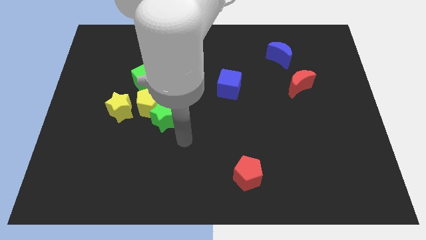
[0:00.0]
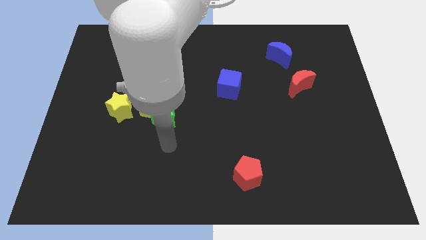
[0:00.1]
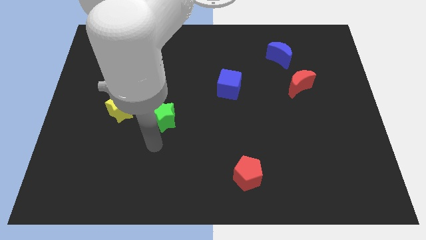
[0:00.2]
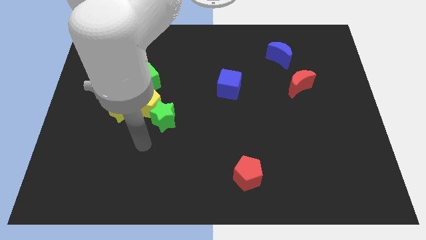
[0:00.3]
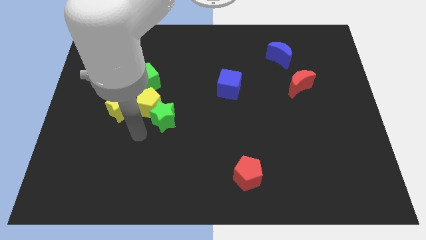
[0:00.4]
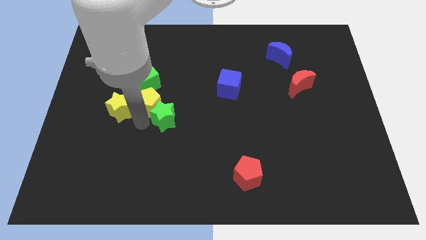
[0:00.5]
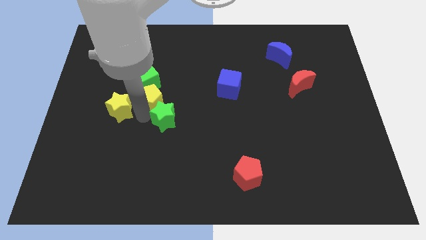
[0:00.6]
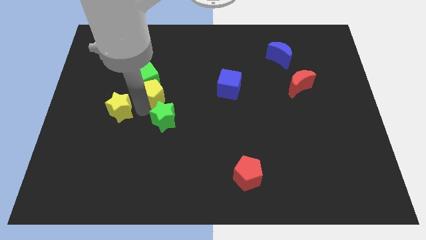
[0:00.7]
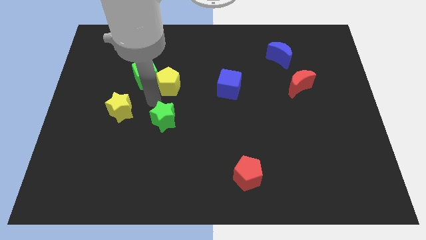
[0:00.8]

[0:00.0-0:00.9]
move the green star away from the yellow pentagon

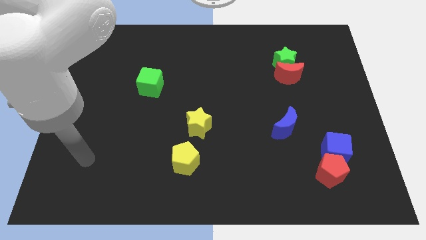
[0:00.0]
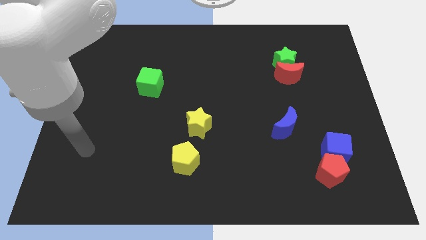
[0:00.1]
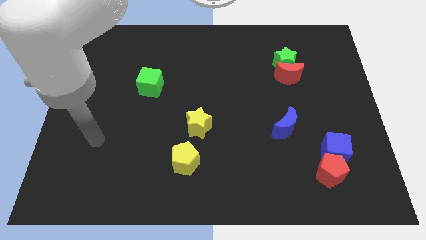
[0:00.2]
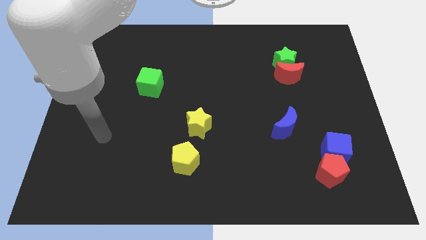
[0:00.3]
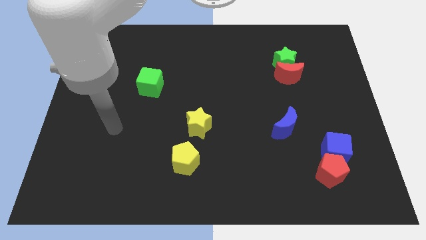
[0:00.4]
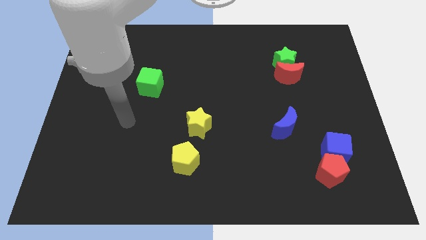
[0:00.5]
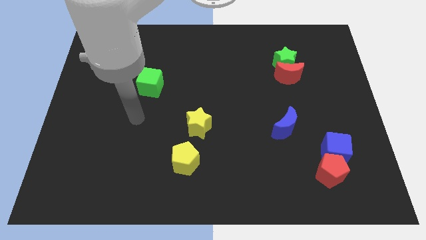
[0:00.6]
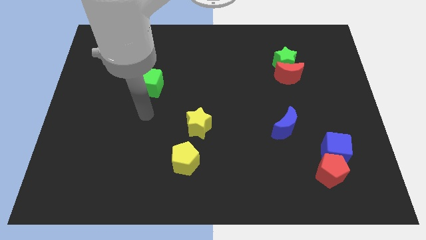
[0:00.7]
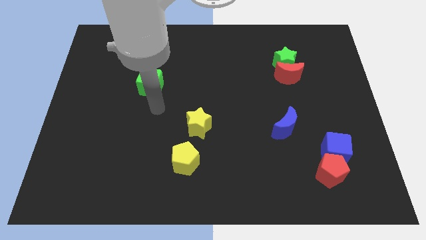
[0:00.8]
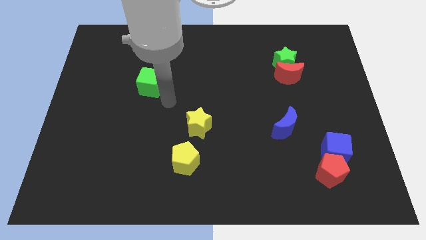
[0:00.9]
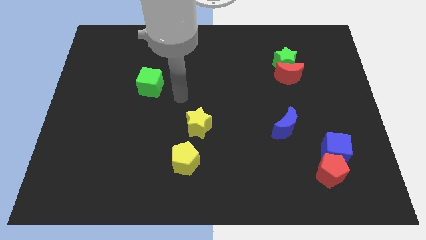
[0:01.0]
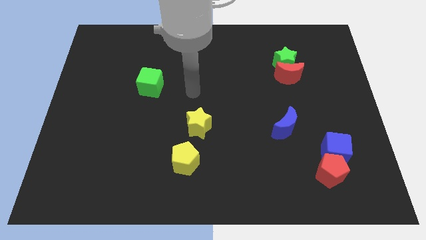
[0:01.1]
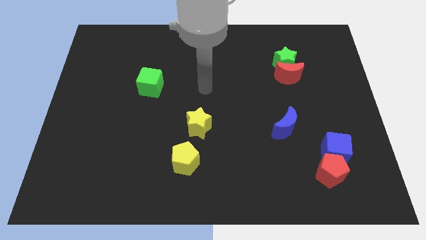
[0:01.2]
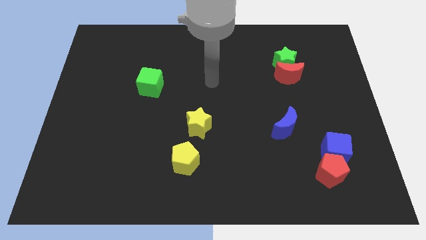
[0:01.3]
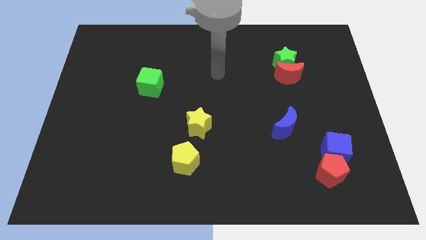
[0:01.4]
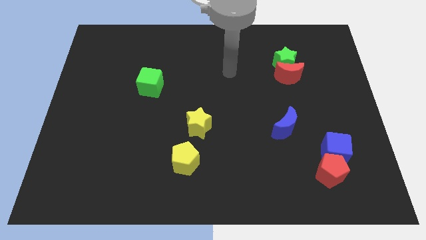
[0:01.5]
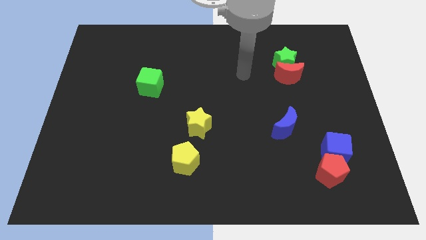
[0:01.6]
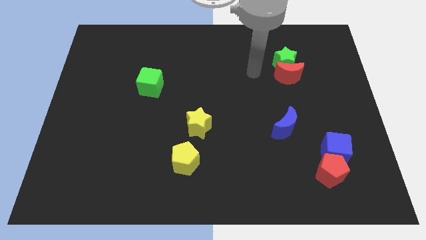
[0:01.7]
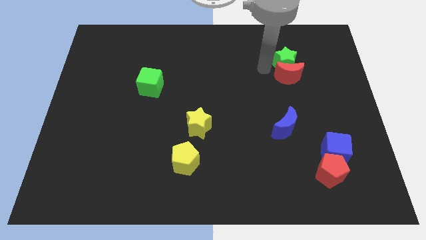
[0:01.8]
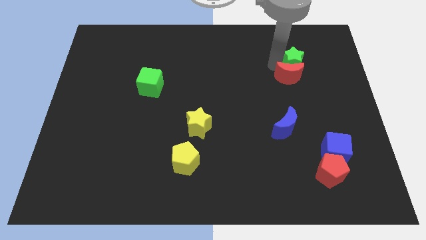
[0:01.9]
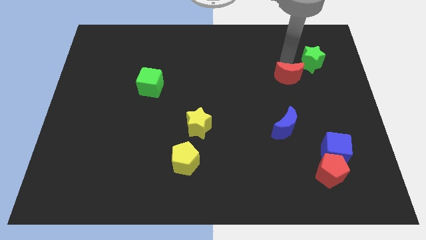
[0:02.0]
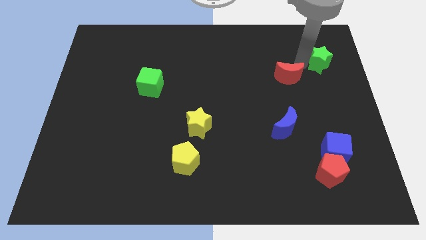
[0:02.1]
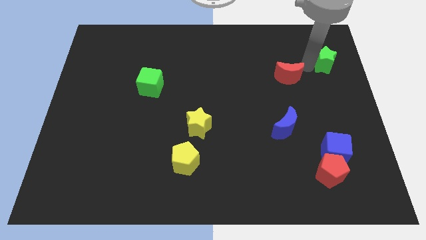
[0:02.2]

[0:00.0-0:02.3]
pull the red moon apart from the green star

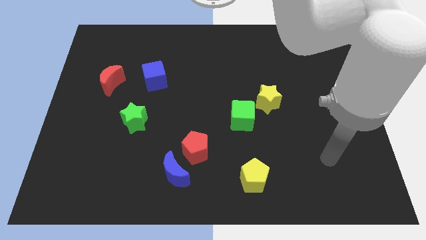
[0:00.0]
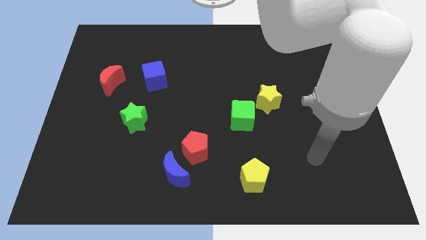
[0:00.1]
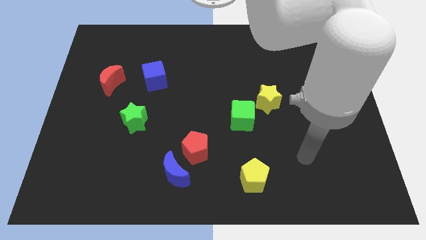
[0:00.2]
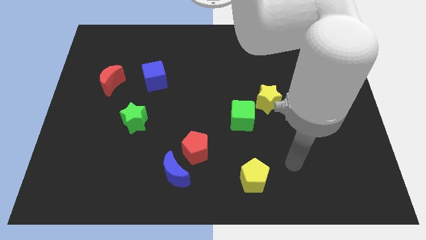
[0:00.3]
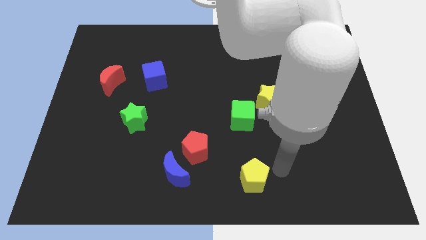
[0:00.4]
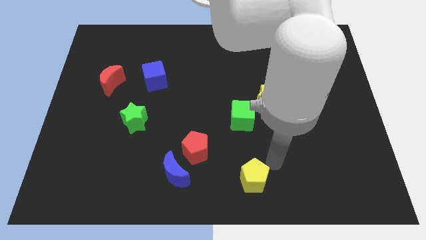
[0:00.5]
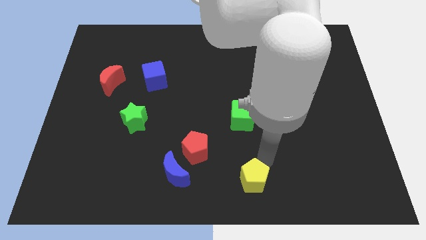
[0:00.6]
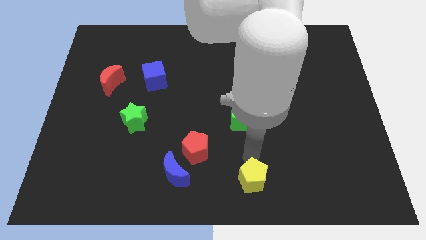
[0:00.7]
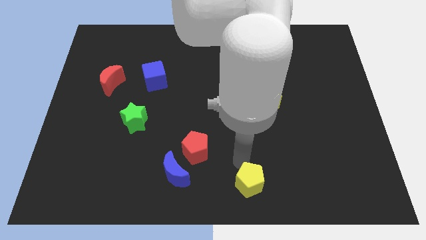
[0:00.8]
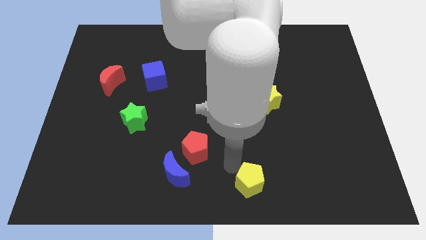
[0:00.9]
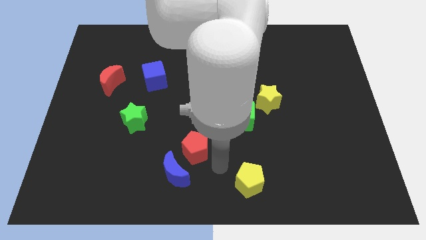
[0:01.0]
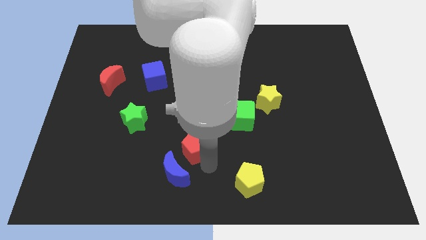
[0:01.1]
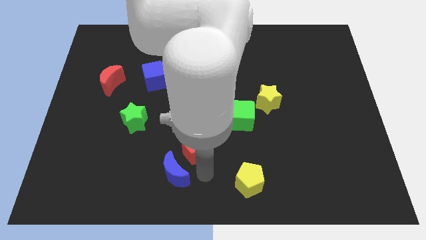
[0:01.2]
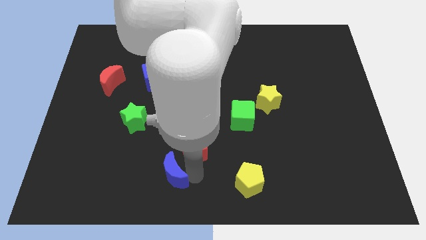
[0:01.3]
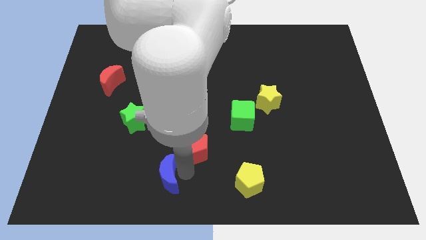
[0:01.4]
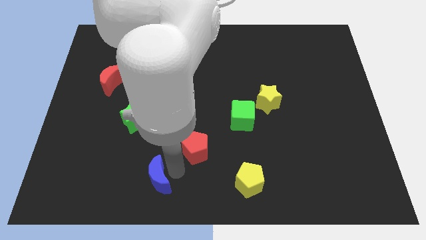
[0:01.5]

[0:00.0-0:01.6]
move the red pentagon away from the blue moon

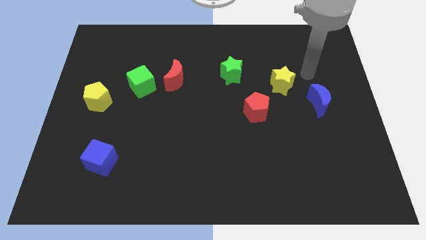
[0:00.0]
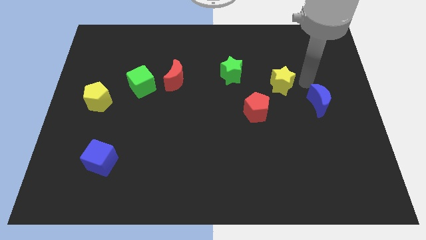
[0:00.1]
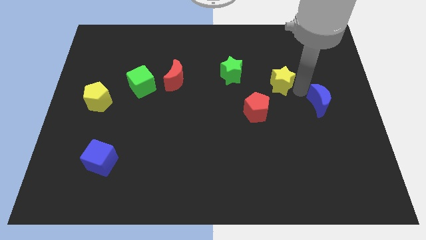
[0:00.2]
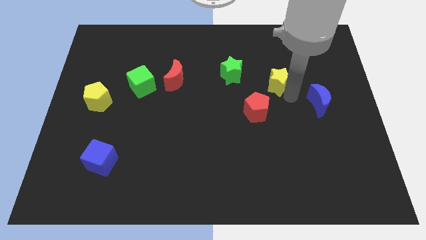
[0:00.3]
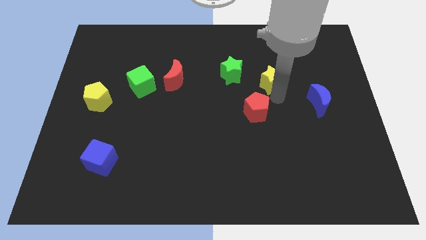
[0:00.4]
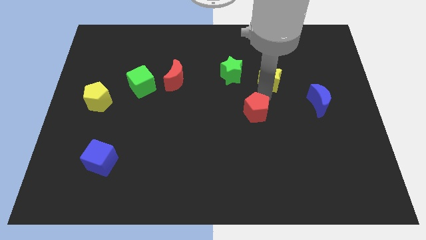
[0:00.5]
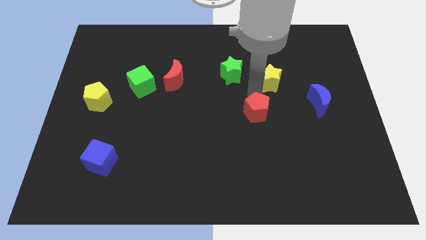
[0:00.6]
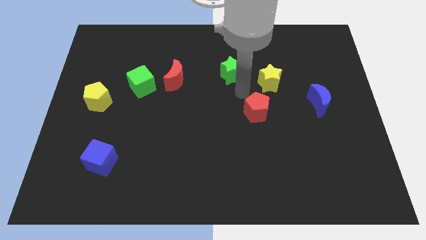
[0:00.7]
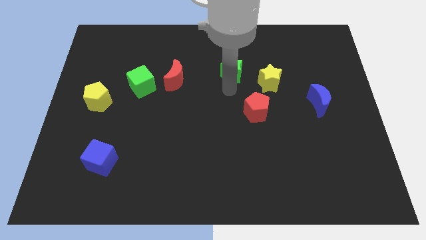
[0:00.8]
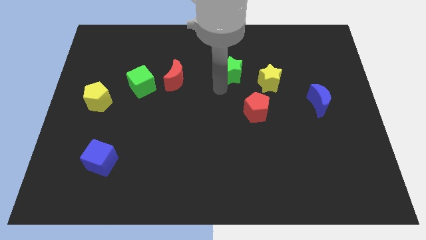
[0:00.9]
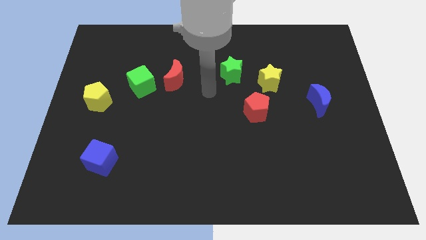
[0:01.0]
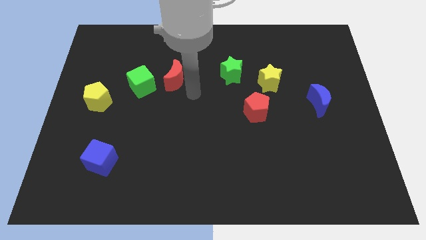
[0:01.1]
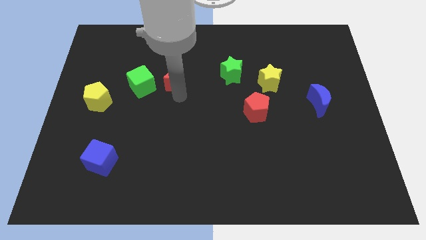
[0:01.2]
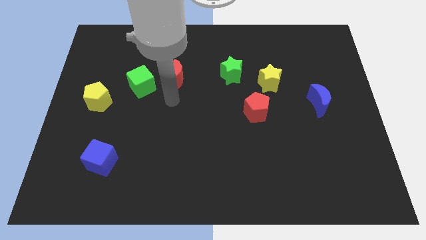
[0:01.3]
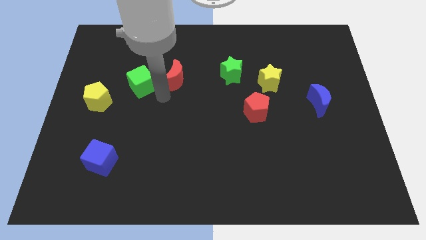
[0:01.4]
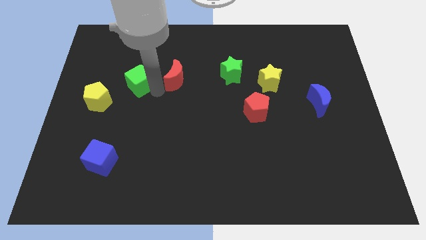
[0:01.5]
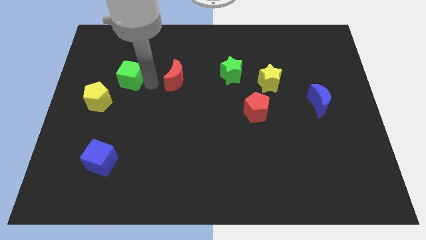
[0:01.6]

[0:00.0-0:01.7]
pull the red moon apart from the green cube

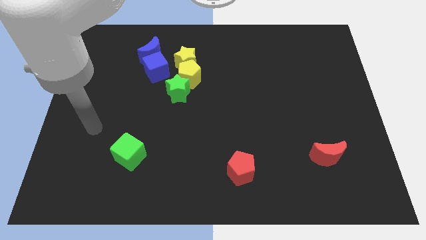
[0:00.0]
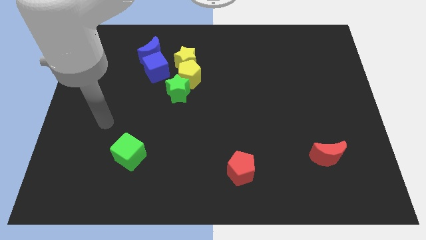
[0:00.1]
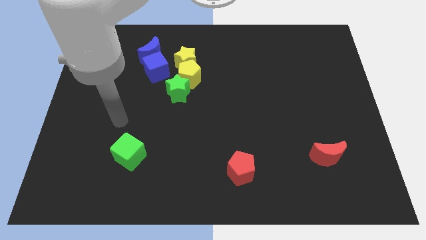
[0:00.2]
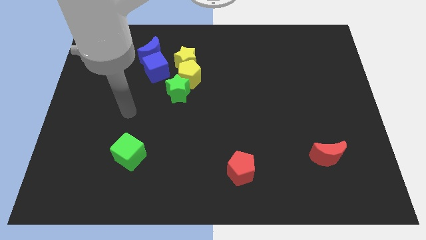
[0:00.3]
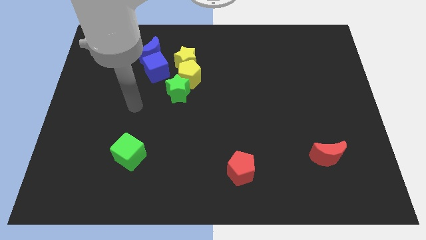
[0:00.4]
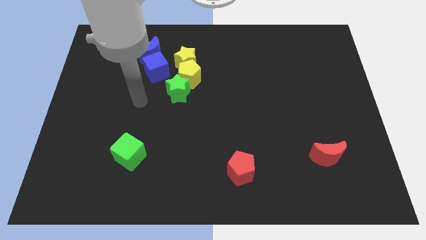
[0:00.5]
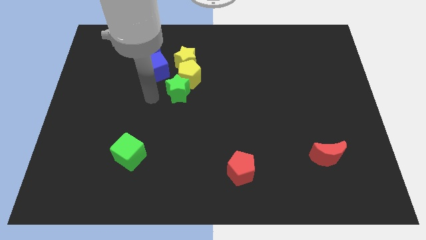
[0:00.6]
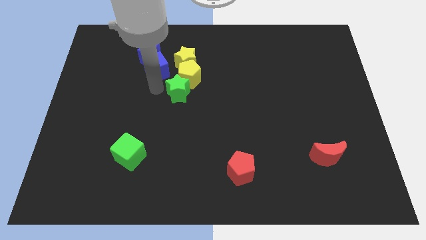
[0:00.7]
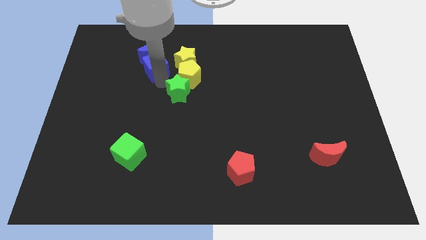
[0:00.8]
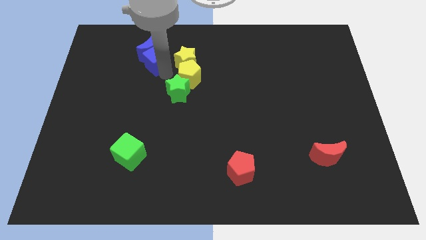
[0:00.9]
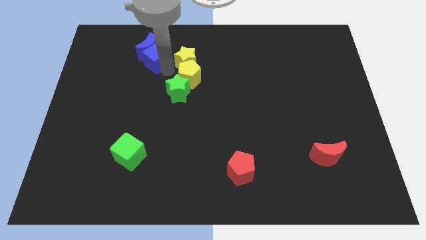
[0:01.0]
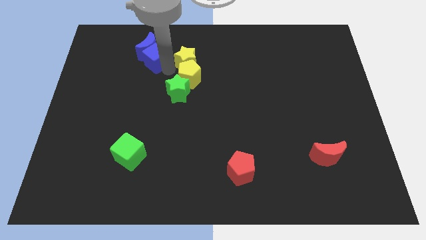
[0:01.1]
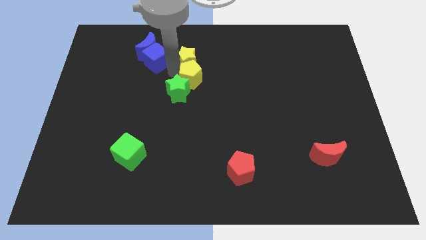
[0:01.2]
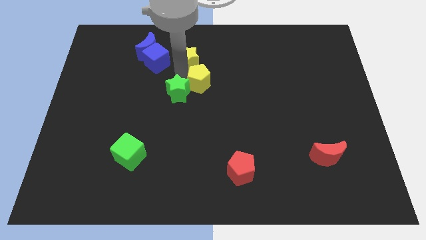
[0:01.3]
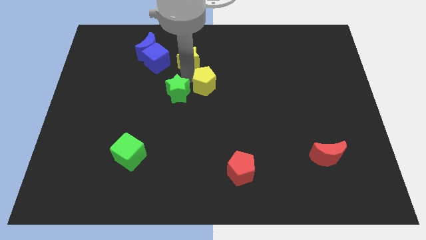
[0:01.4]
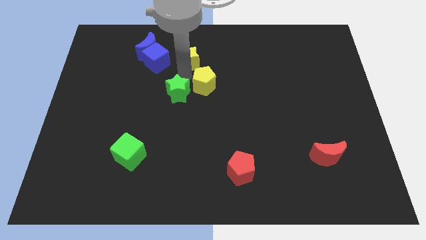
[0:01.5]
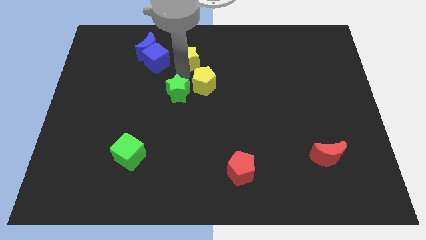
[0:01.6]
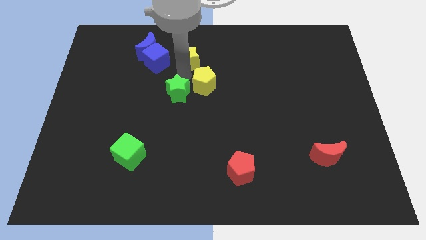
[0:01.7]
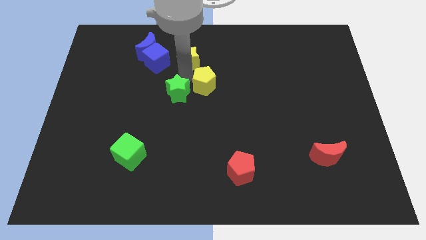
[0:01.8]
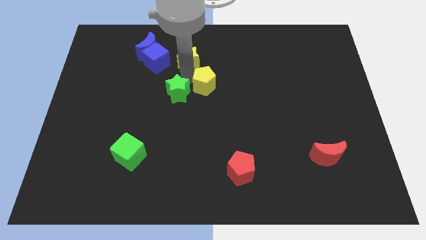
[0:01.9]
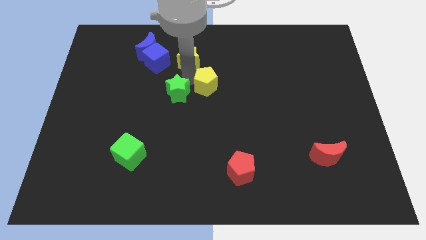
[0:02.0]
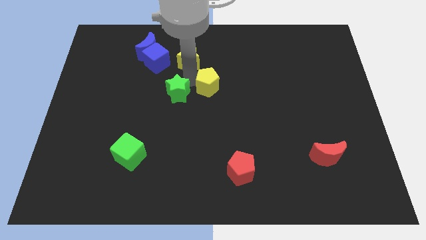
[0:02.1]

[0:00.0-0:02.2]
move the yellow pentagon away from the group

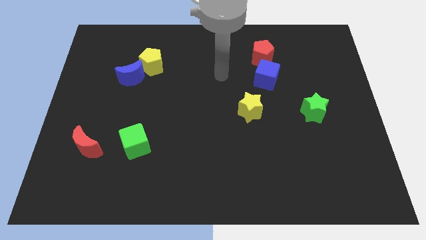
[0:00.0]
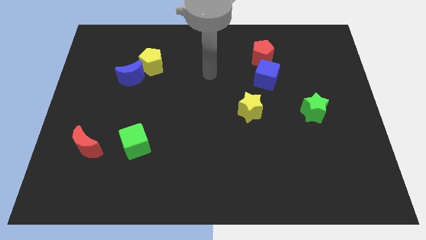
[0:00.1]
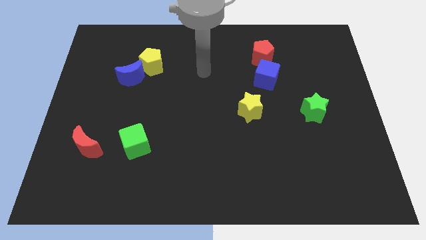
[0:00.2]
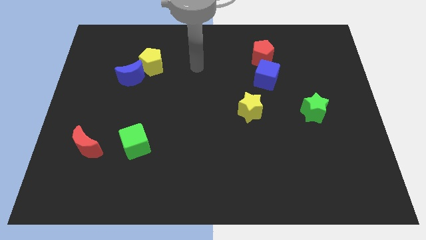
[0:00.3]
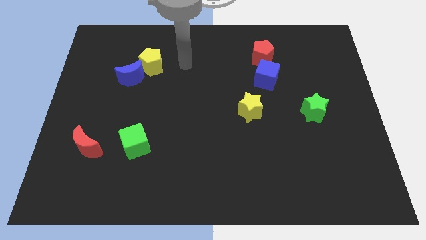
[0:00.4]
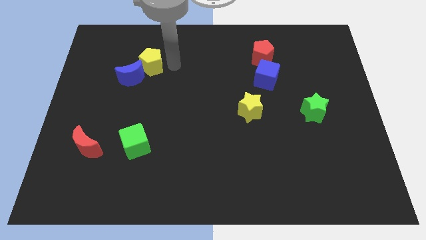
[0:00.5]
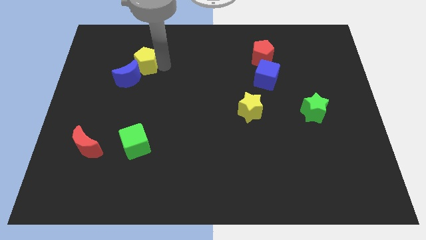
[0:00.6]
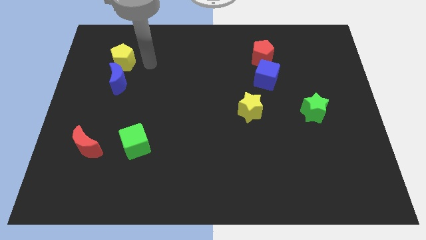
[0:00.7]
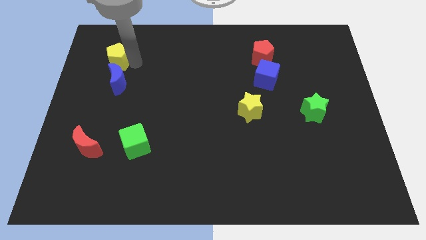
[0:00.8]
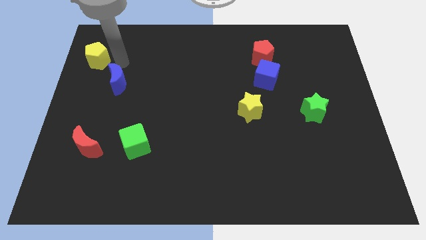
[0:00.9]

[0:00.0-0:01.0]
move the blue moon away from the yellow pentagon
